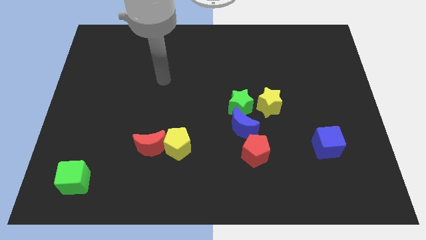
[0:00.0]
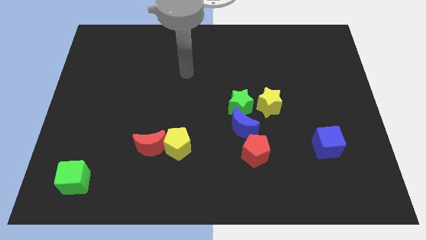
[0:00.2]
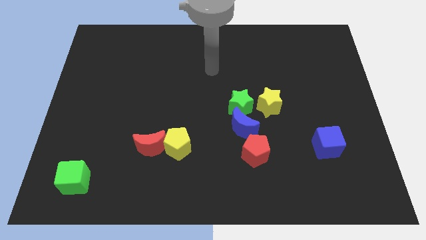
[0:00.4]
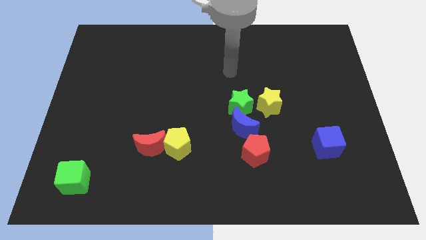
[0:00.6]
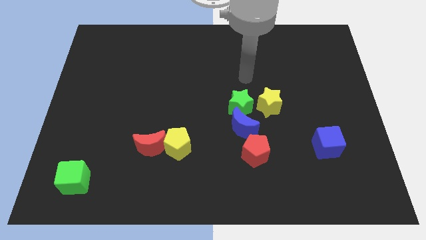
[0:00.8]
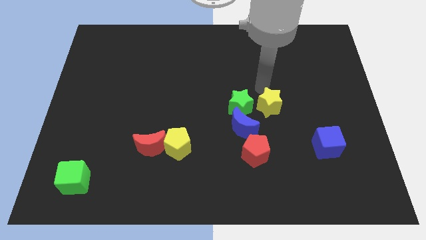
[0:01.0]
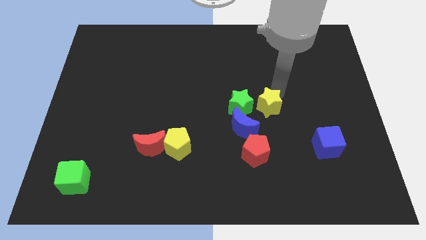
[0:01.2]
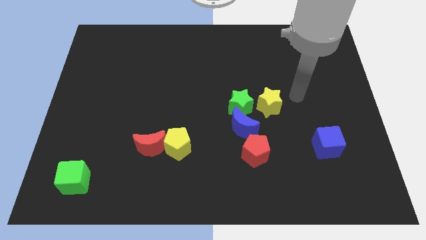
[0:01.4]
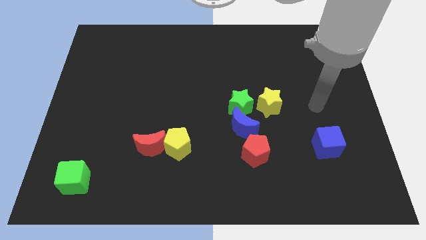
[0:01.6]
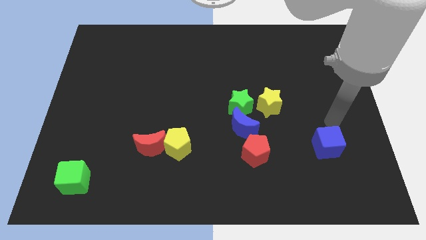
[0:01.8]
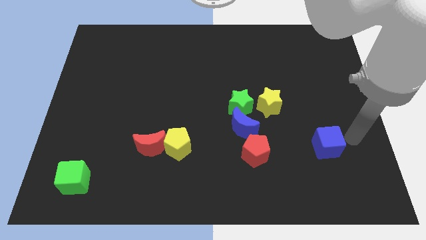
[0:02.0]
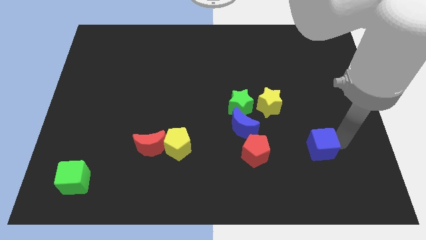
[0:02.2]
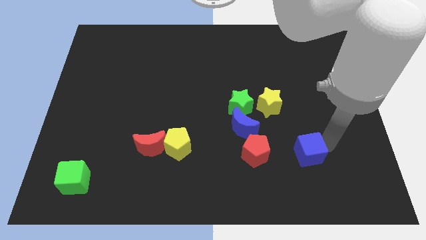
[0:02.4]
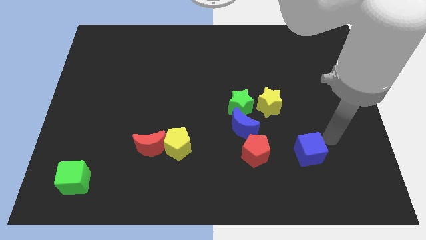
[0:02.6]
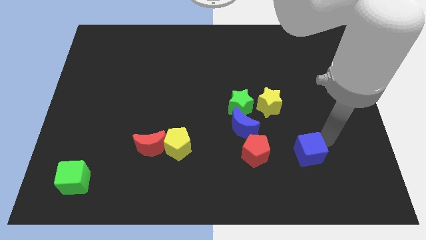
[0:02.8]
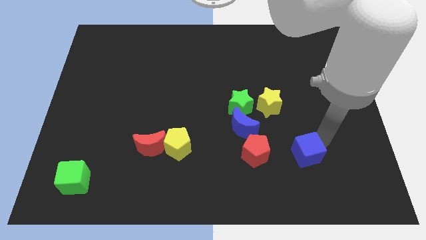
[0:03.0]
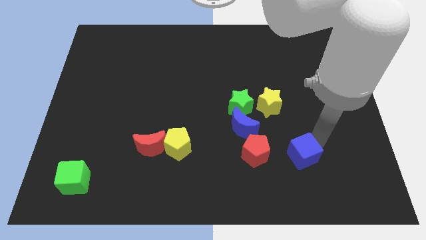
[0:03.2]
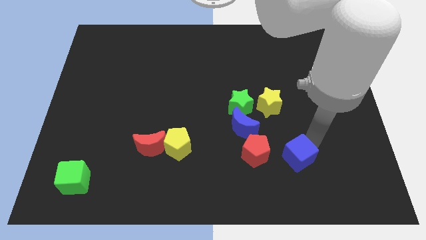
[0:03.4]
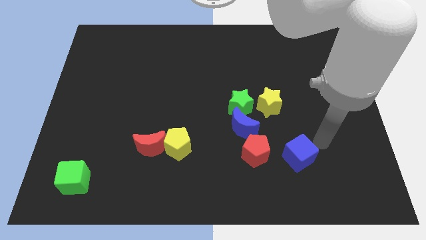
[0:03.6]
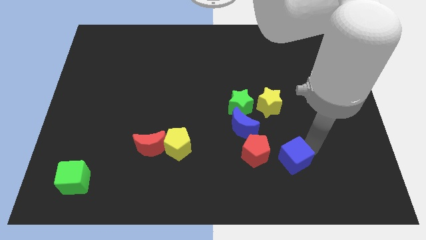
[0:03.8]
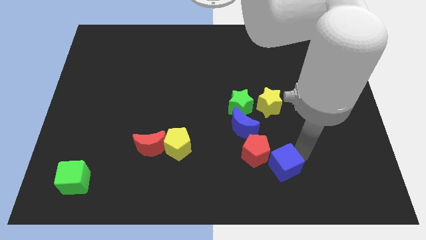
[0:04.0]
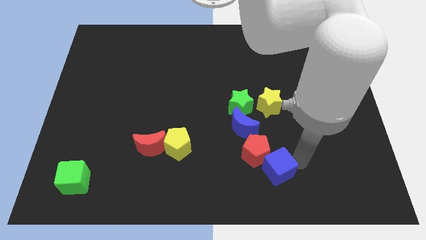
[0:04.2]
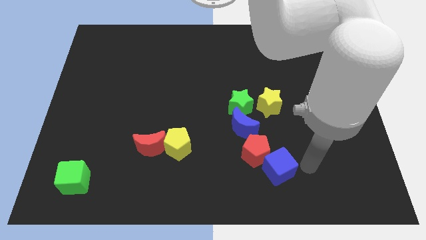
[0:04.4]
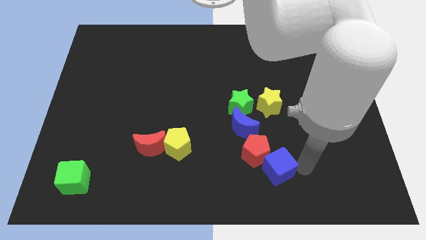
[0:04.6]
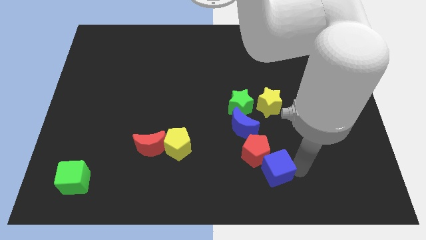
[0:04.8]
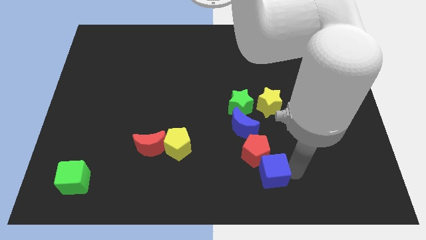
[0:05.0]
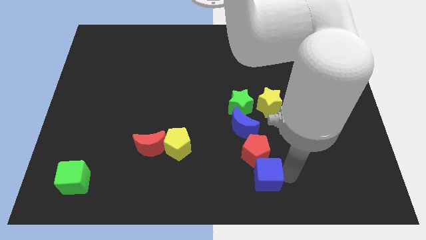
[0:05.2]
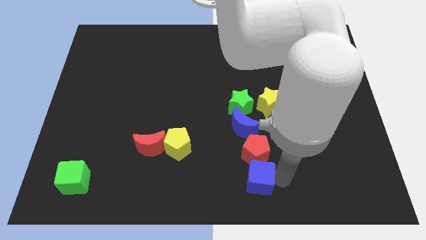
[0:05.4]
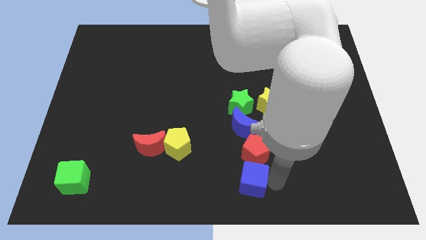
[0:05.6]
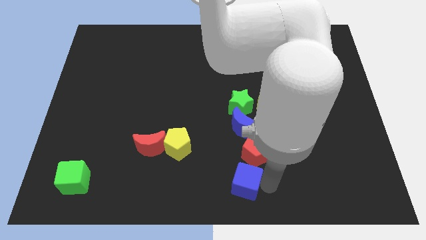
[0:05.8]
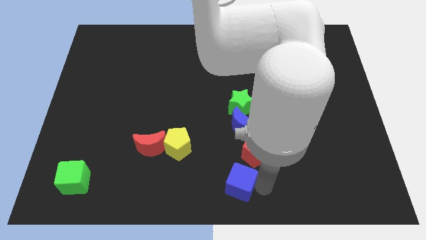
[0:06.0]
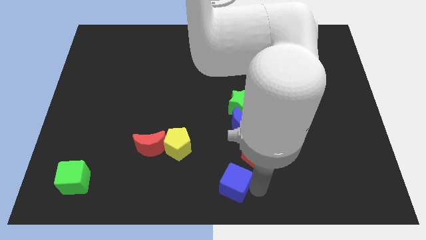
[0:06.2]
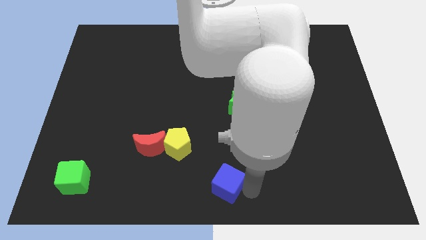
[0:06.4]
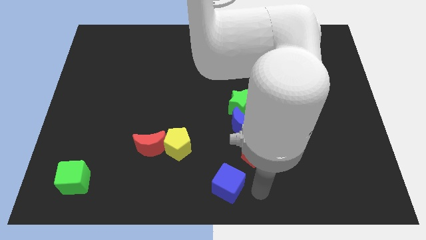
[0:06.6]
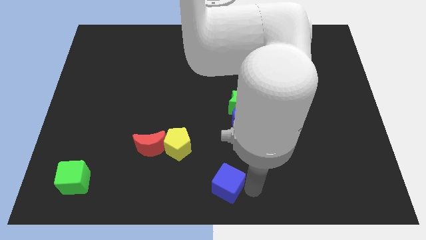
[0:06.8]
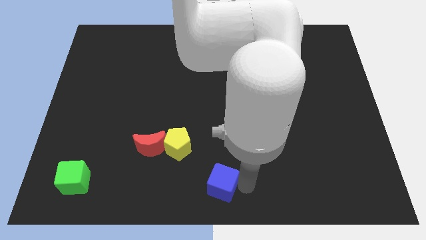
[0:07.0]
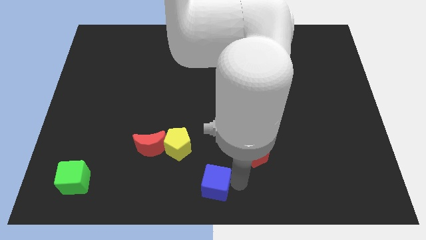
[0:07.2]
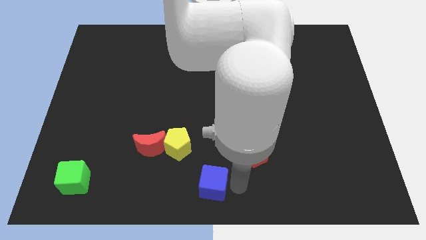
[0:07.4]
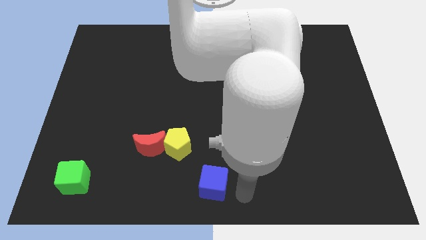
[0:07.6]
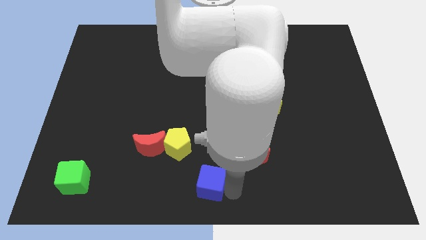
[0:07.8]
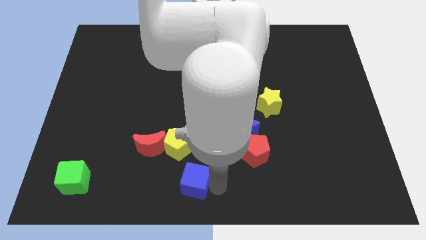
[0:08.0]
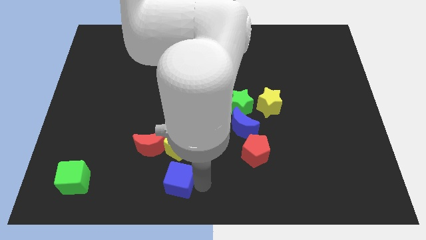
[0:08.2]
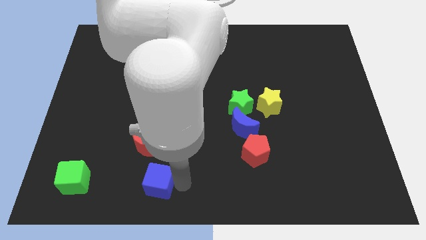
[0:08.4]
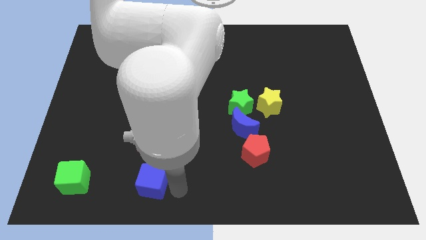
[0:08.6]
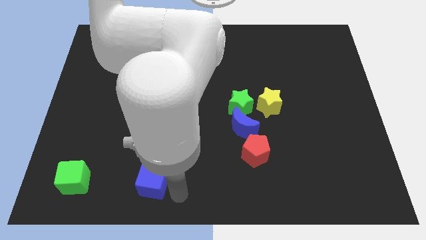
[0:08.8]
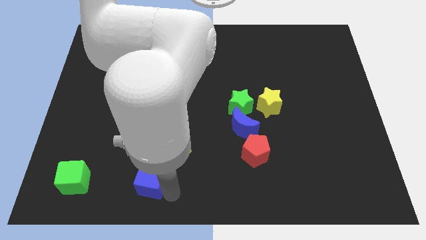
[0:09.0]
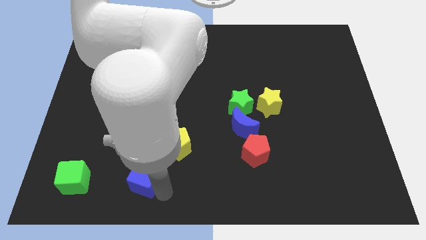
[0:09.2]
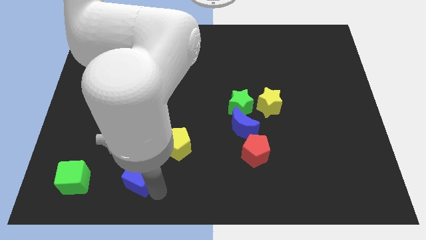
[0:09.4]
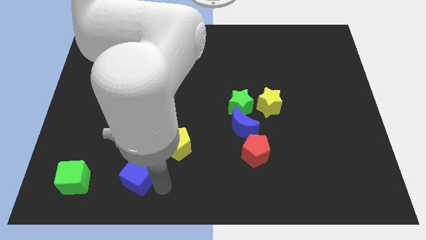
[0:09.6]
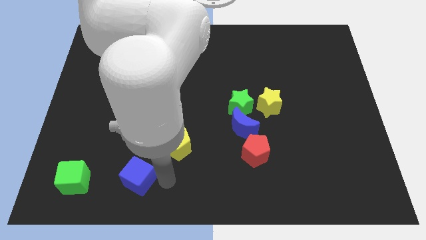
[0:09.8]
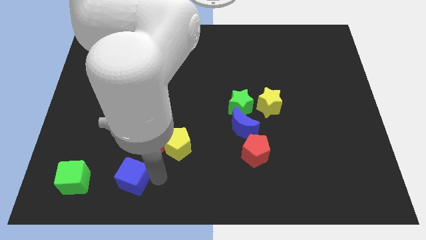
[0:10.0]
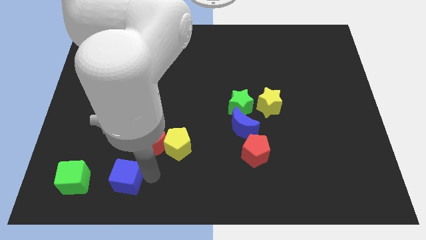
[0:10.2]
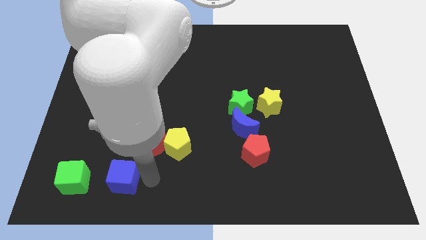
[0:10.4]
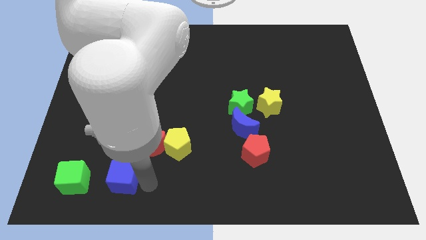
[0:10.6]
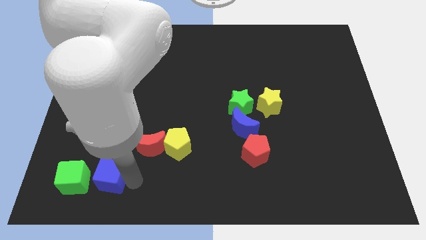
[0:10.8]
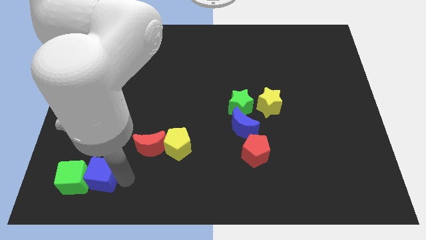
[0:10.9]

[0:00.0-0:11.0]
push the blue cube towards the green cube

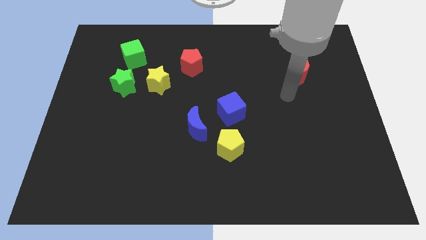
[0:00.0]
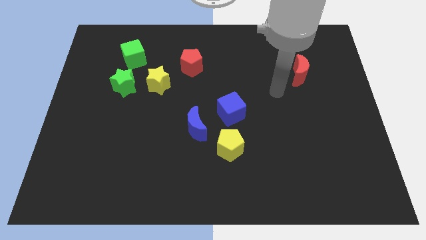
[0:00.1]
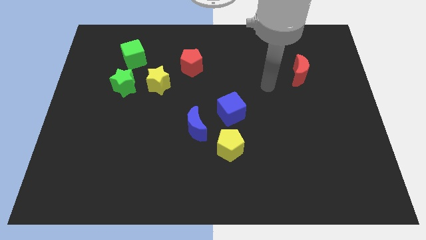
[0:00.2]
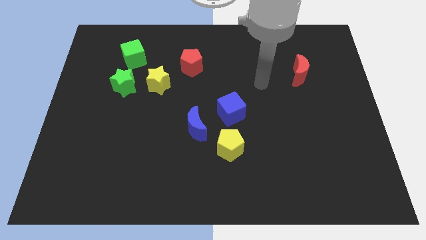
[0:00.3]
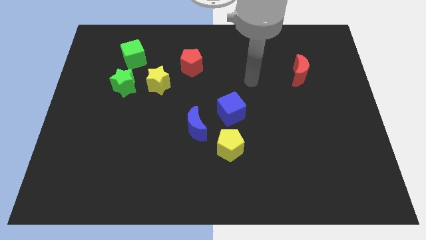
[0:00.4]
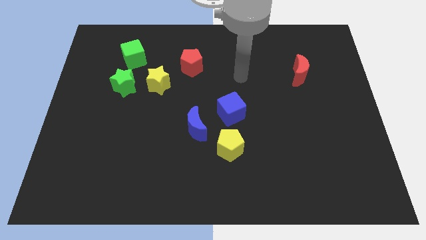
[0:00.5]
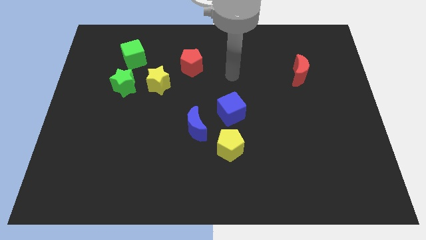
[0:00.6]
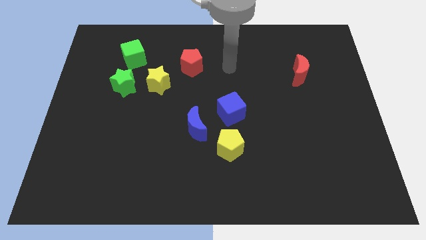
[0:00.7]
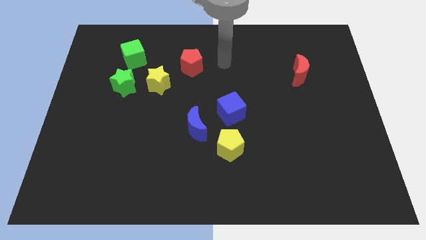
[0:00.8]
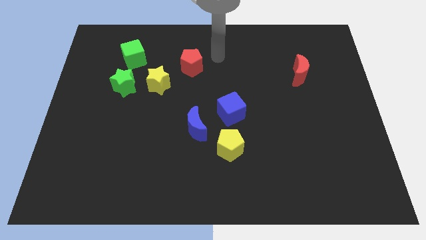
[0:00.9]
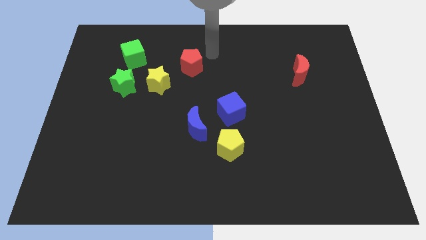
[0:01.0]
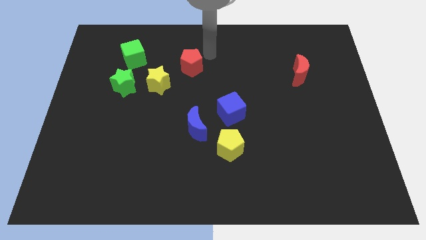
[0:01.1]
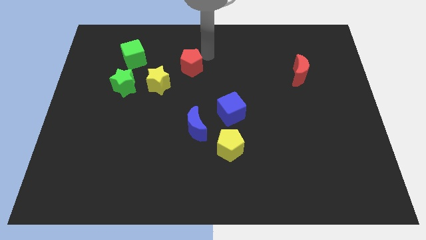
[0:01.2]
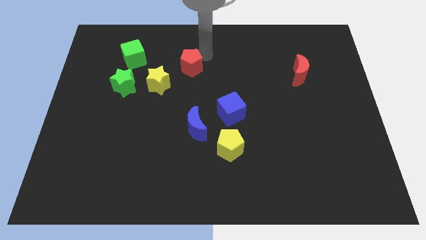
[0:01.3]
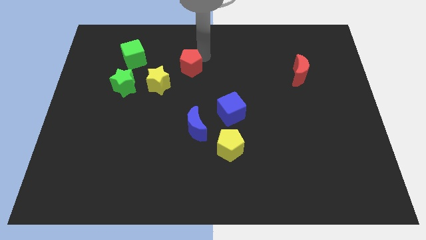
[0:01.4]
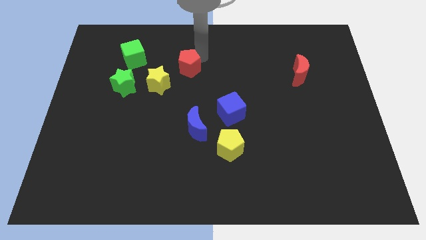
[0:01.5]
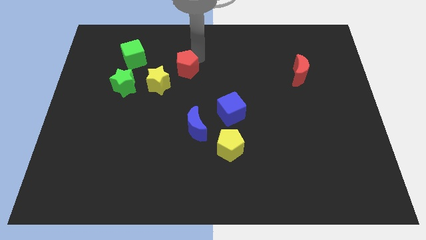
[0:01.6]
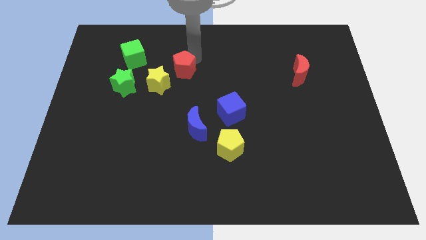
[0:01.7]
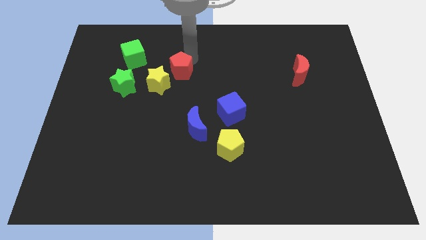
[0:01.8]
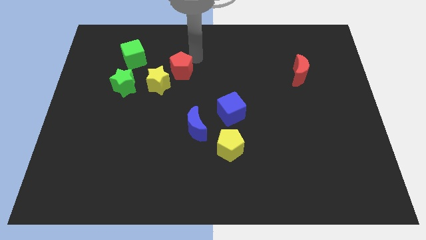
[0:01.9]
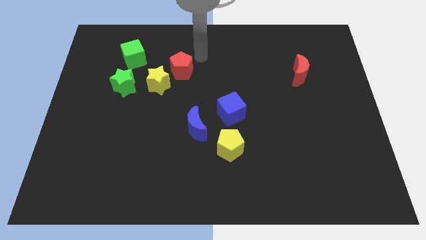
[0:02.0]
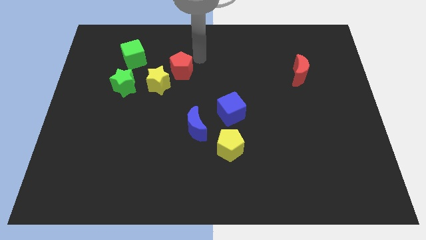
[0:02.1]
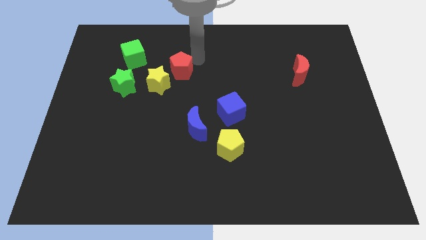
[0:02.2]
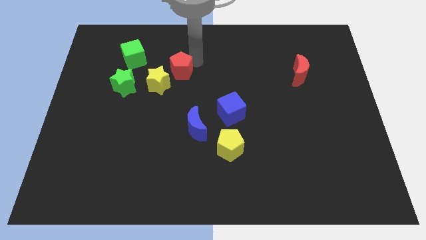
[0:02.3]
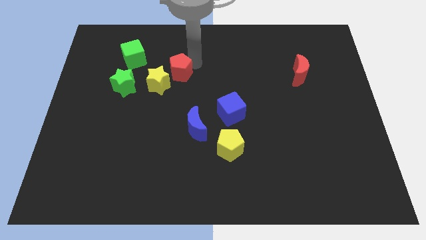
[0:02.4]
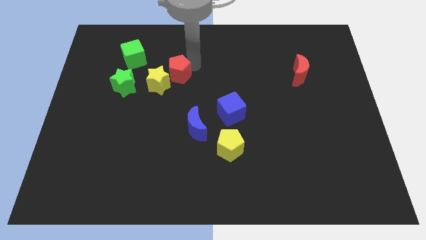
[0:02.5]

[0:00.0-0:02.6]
move the red pentagon next to the yellow star

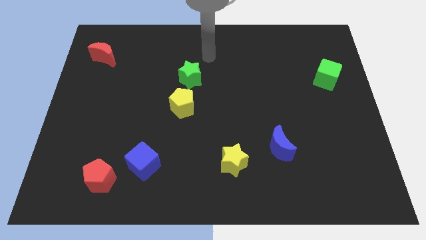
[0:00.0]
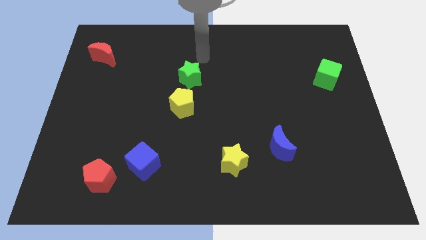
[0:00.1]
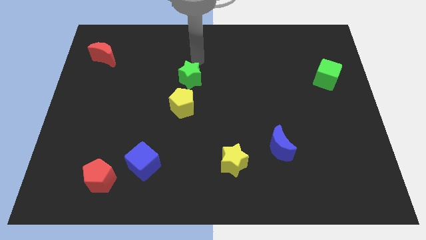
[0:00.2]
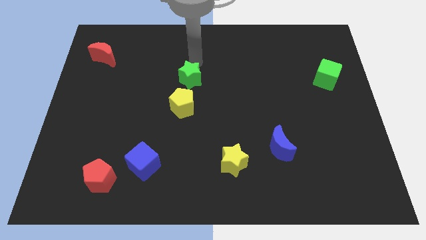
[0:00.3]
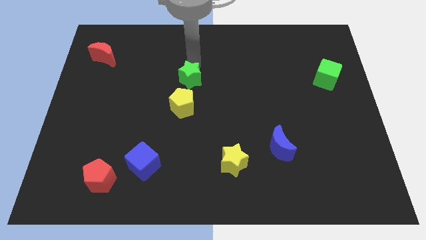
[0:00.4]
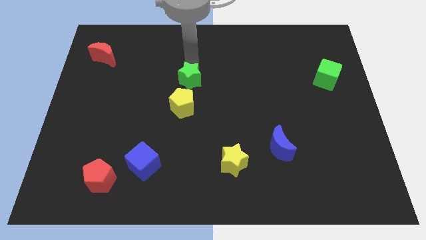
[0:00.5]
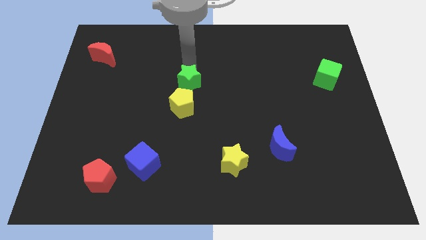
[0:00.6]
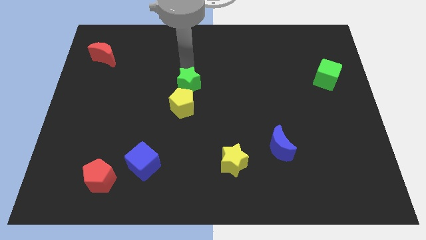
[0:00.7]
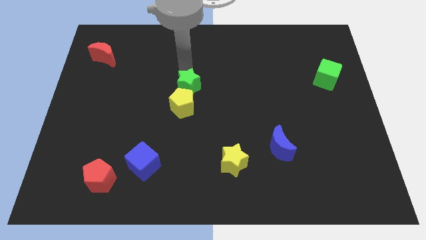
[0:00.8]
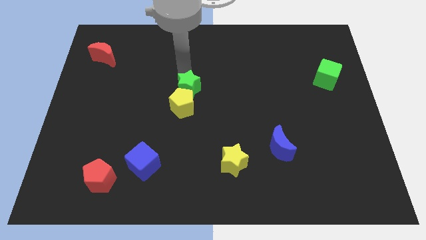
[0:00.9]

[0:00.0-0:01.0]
move the green star close to the yellow pentagon
